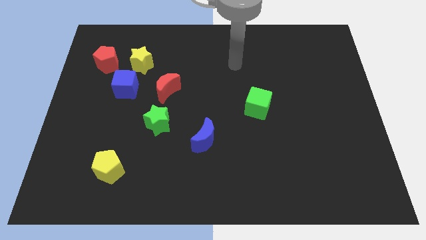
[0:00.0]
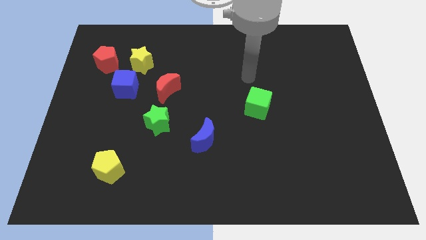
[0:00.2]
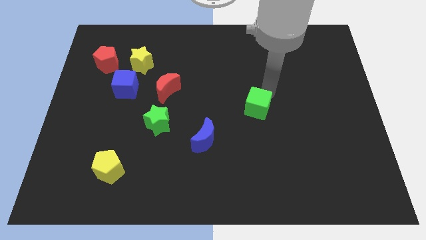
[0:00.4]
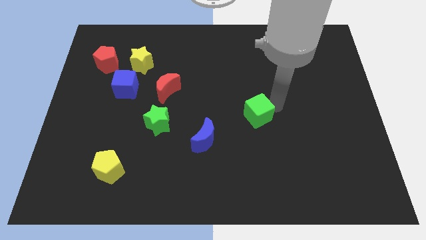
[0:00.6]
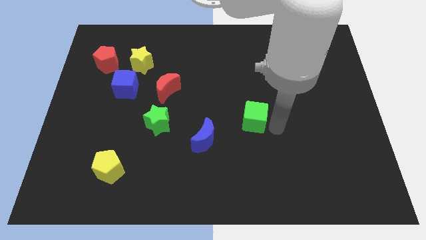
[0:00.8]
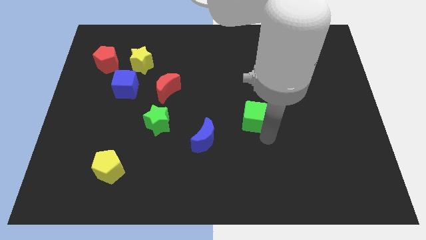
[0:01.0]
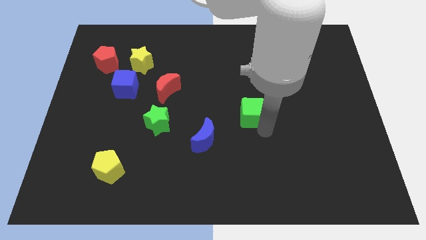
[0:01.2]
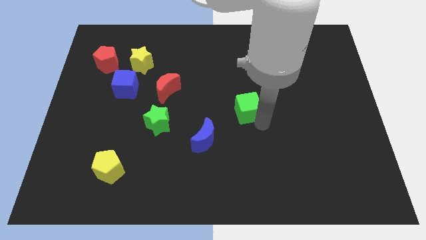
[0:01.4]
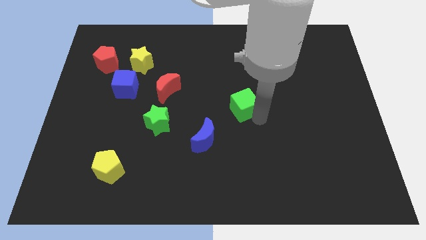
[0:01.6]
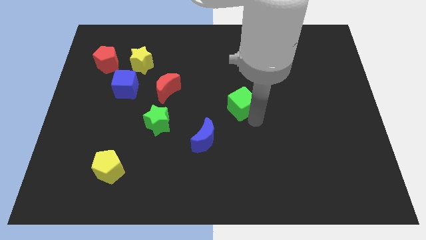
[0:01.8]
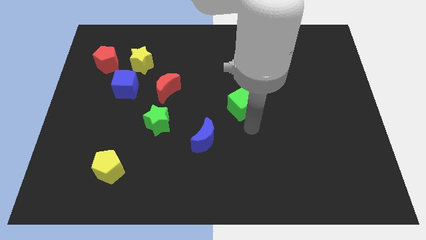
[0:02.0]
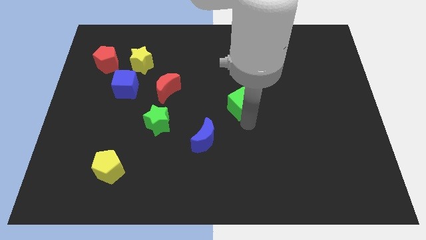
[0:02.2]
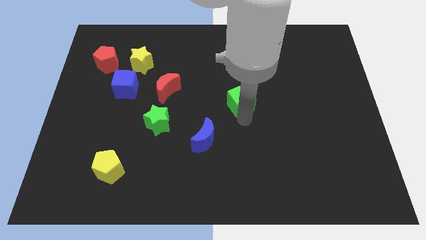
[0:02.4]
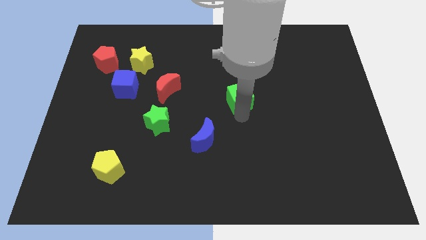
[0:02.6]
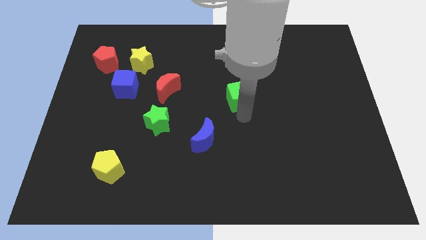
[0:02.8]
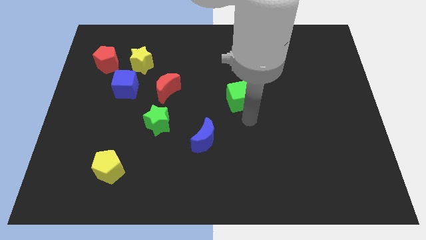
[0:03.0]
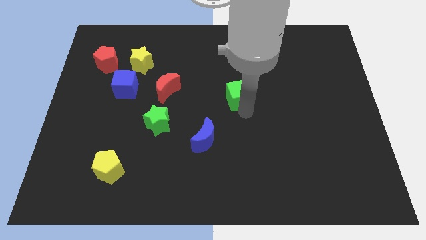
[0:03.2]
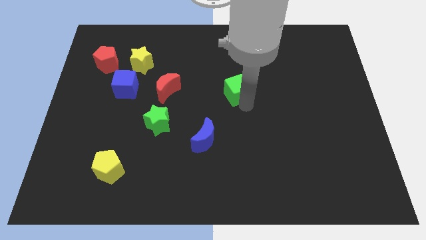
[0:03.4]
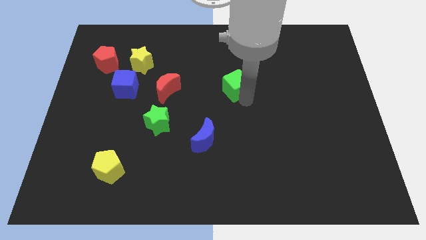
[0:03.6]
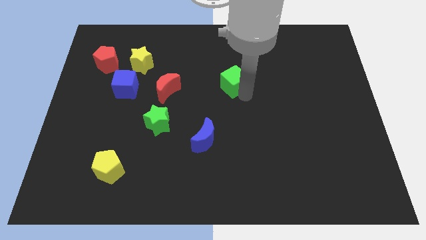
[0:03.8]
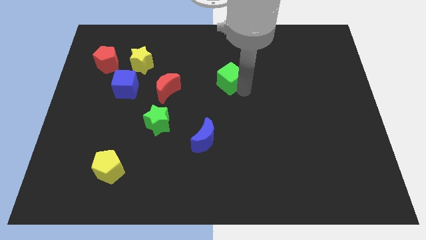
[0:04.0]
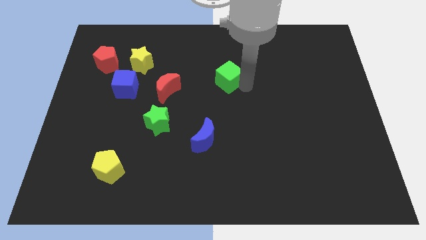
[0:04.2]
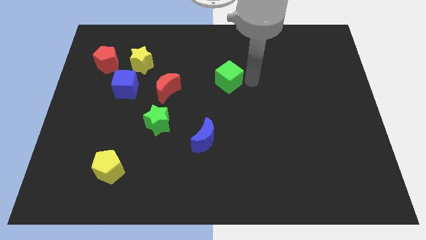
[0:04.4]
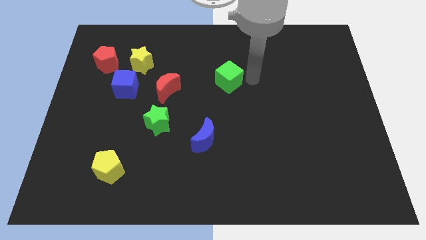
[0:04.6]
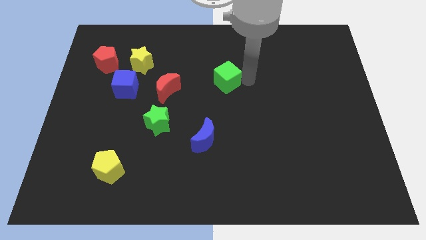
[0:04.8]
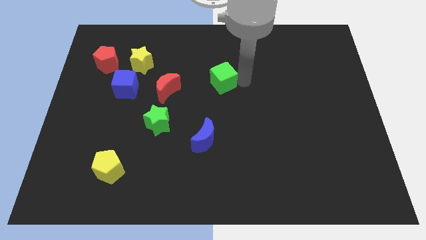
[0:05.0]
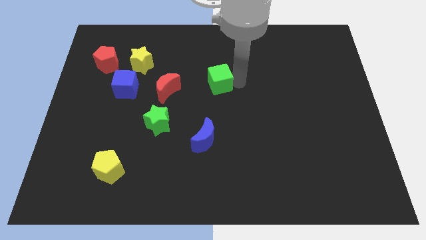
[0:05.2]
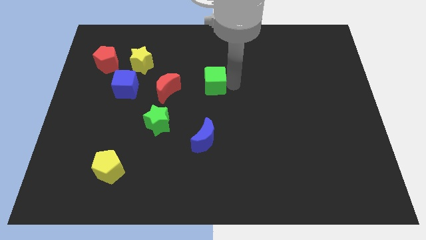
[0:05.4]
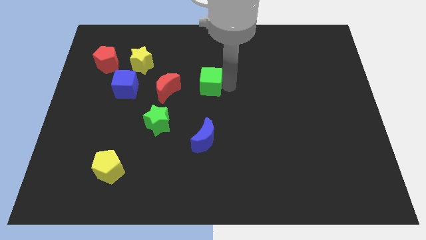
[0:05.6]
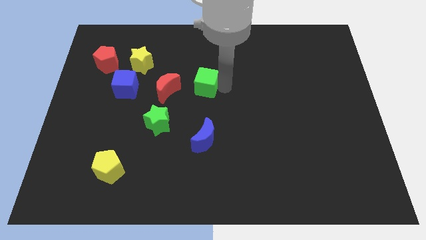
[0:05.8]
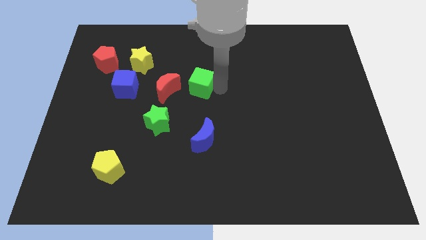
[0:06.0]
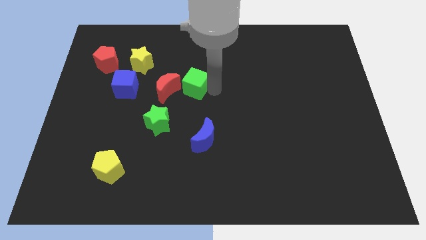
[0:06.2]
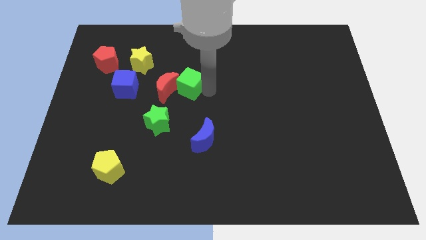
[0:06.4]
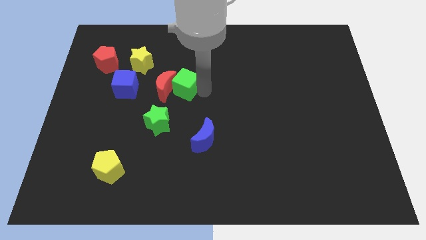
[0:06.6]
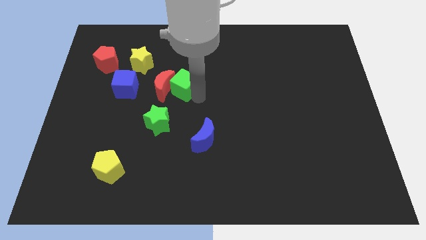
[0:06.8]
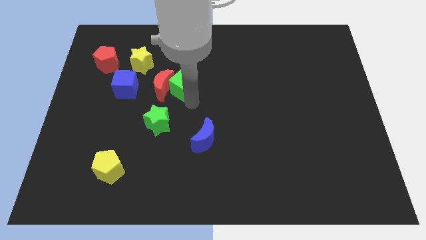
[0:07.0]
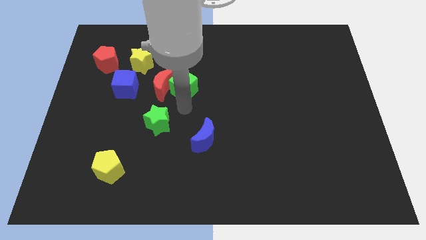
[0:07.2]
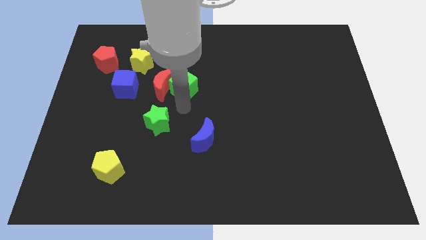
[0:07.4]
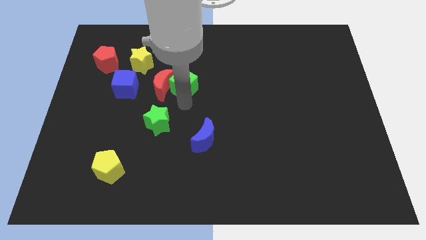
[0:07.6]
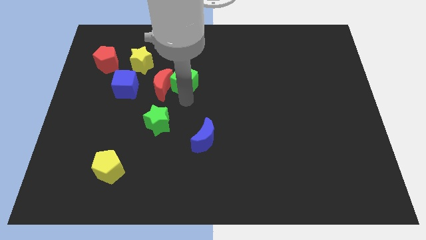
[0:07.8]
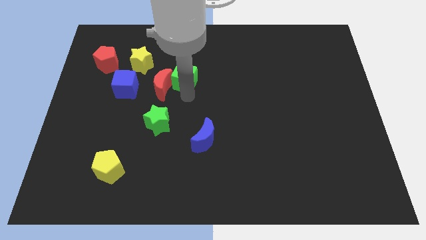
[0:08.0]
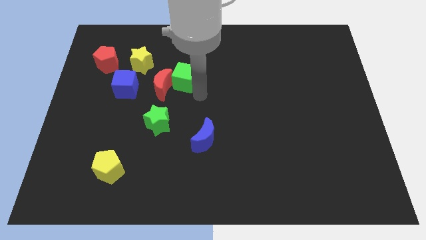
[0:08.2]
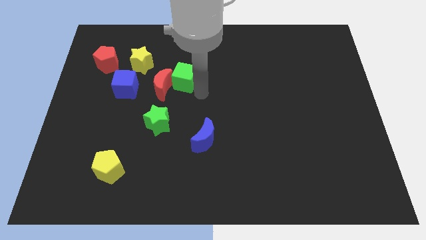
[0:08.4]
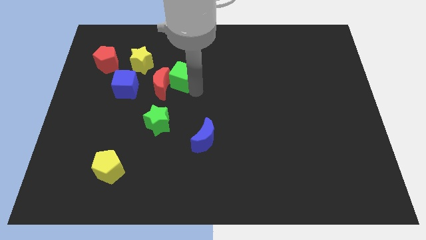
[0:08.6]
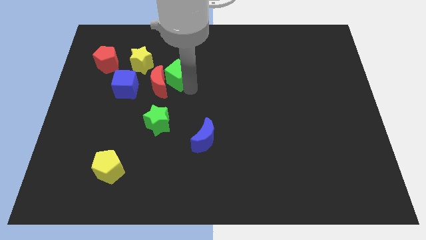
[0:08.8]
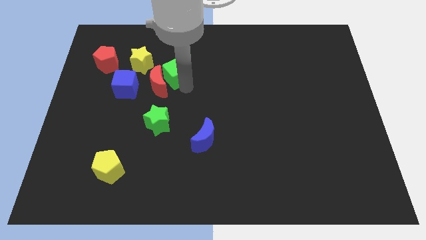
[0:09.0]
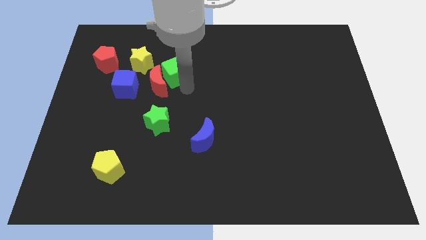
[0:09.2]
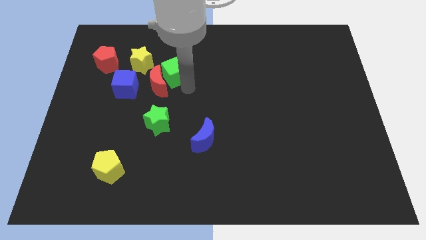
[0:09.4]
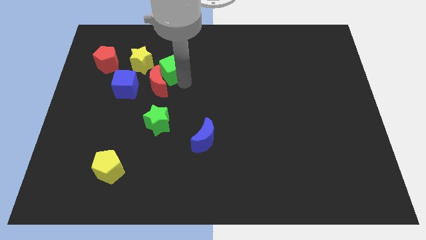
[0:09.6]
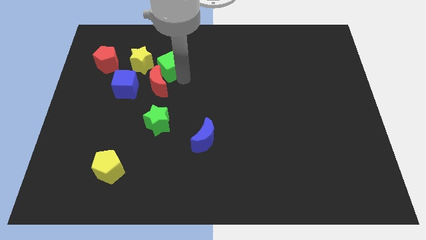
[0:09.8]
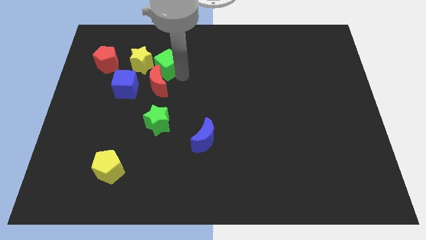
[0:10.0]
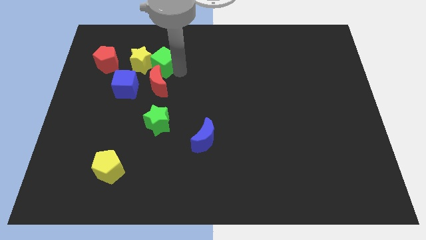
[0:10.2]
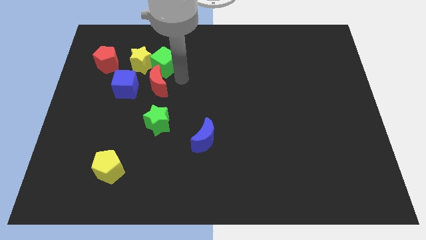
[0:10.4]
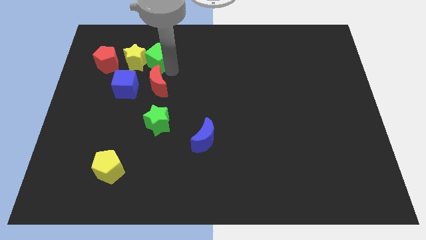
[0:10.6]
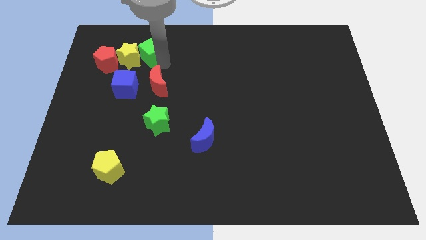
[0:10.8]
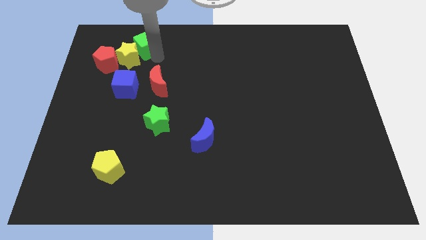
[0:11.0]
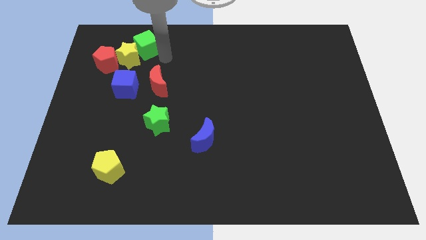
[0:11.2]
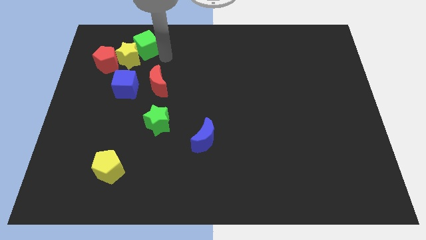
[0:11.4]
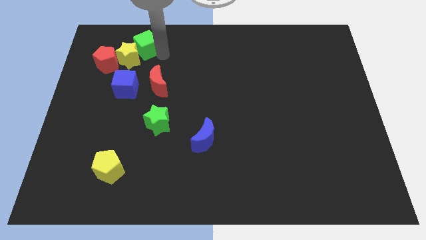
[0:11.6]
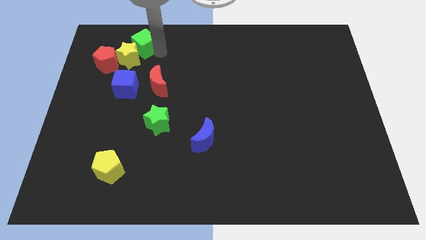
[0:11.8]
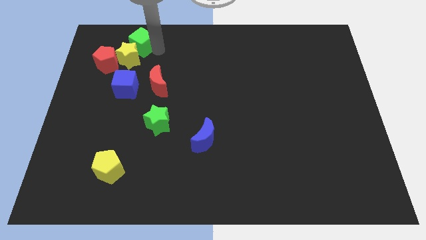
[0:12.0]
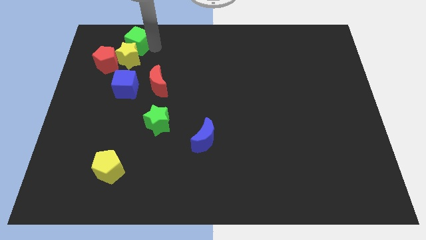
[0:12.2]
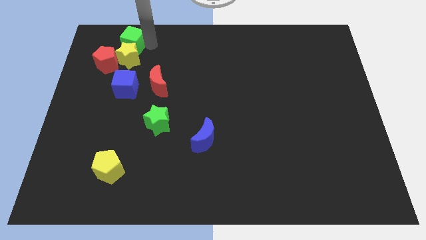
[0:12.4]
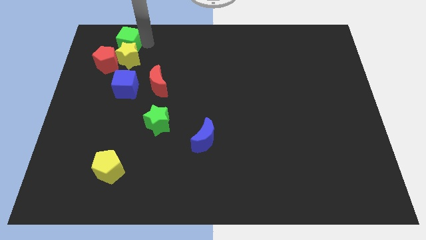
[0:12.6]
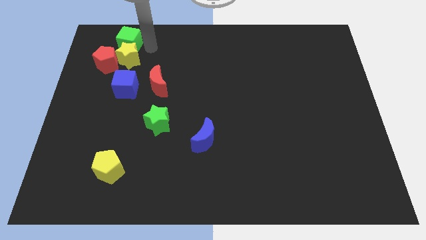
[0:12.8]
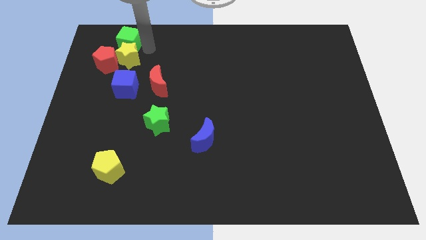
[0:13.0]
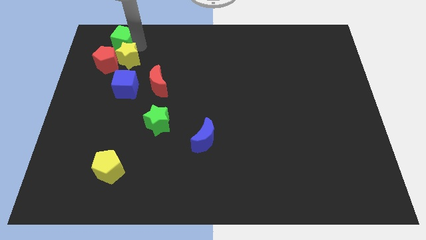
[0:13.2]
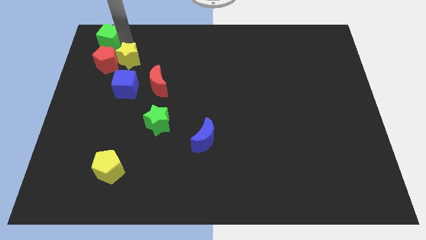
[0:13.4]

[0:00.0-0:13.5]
push the green cube to the top left corner

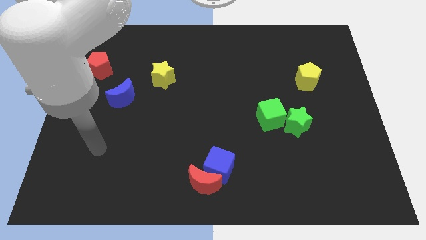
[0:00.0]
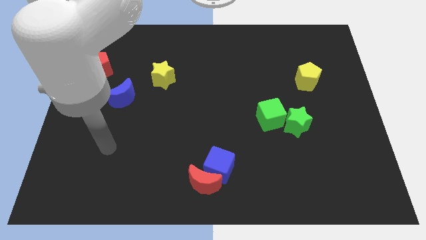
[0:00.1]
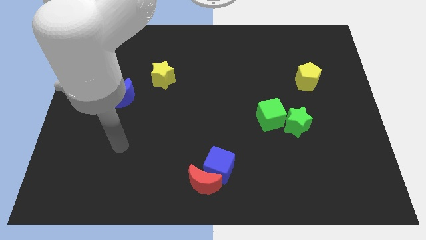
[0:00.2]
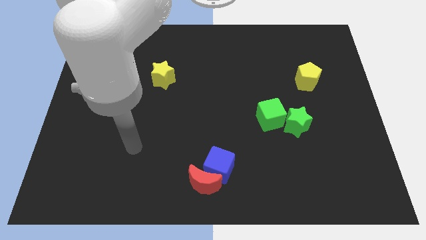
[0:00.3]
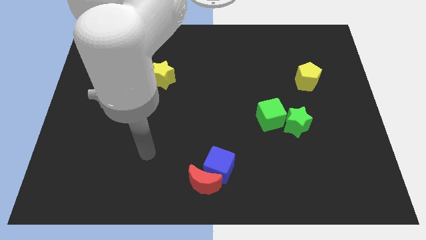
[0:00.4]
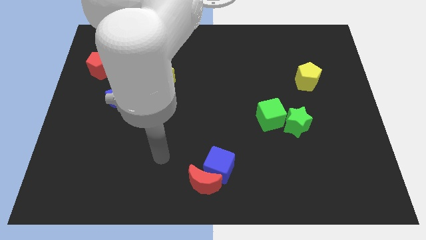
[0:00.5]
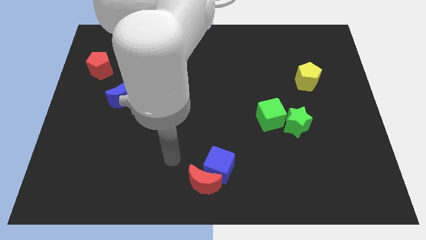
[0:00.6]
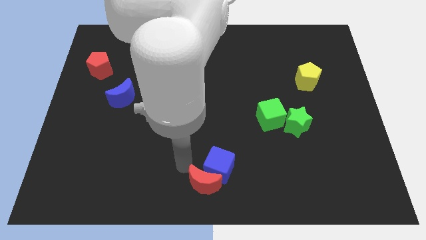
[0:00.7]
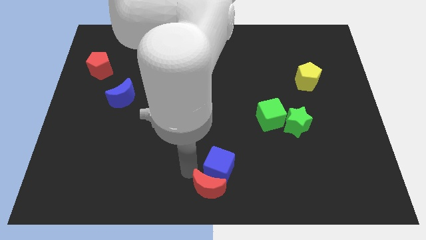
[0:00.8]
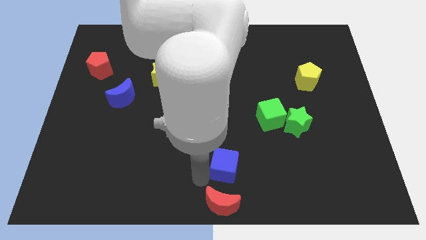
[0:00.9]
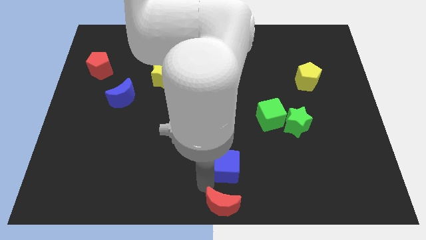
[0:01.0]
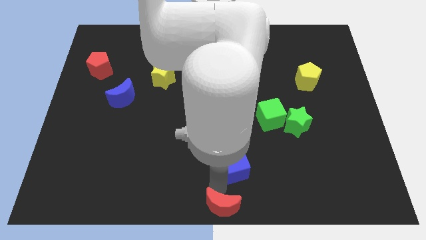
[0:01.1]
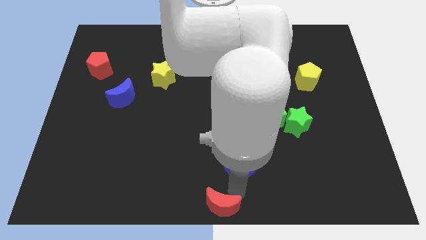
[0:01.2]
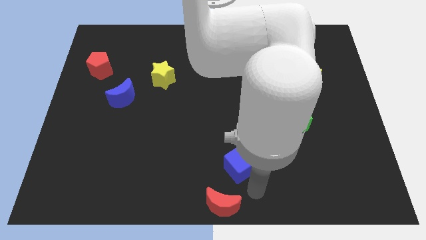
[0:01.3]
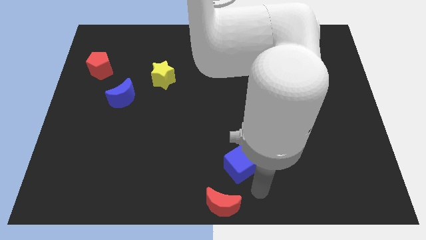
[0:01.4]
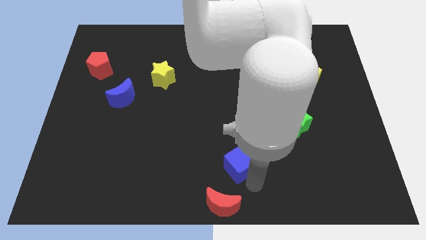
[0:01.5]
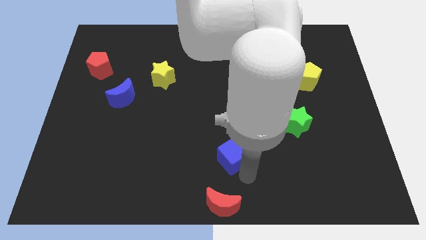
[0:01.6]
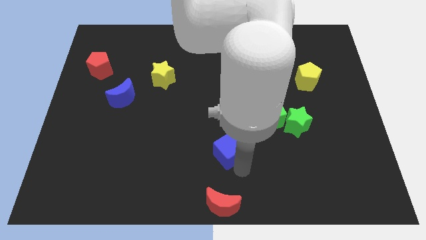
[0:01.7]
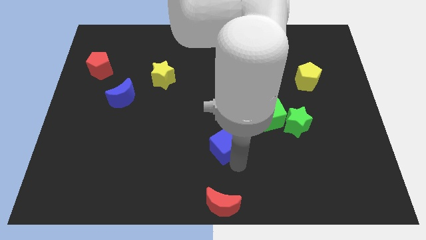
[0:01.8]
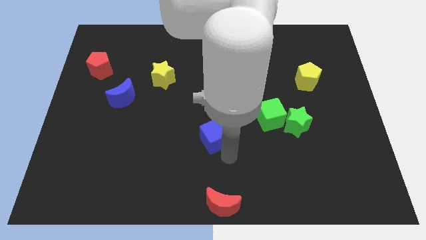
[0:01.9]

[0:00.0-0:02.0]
push the blue cube to the center of the board
